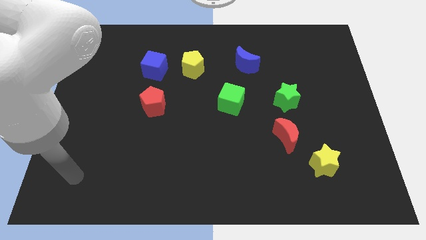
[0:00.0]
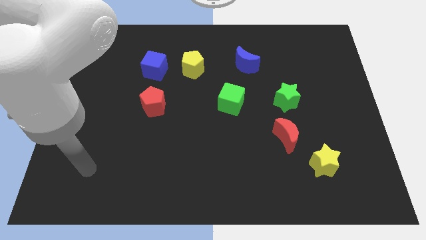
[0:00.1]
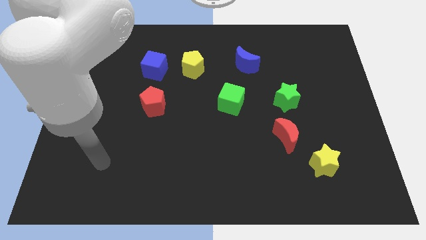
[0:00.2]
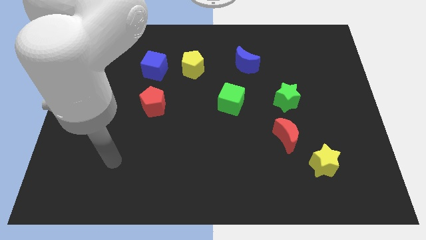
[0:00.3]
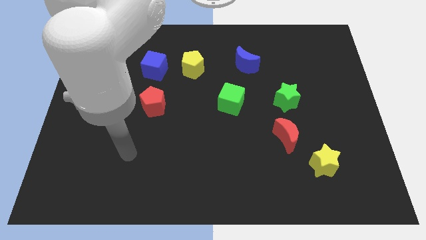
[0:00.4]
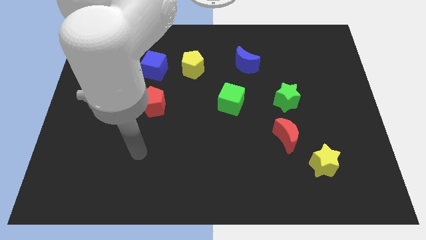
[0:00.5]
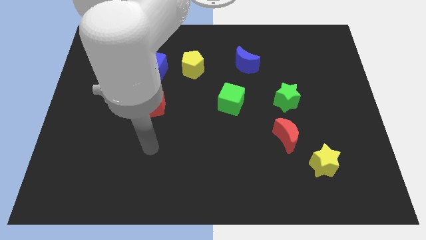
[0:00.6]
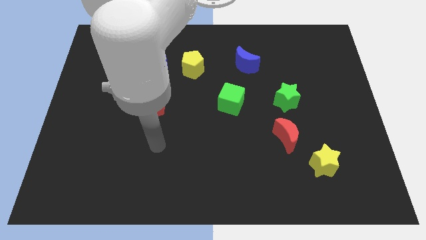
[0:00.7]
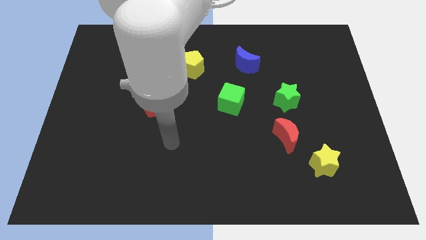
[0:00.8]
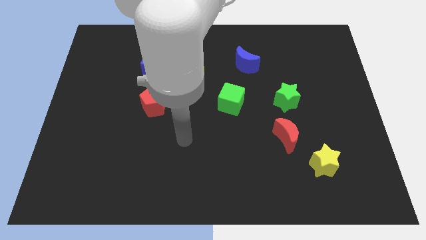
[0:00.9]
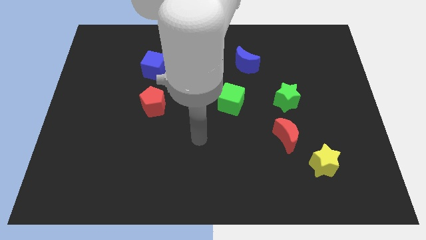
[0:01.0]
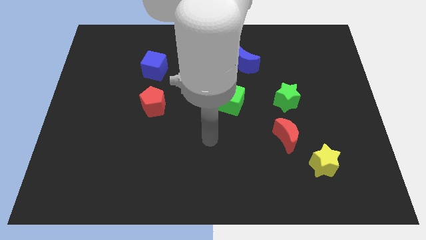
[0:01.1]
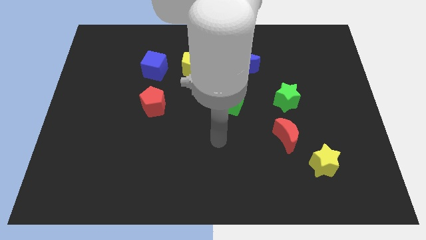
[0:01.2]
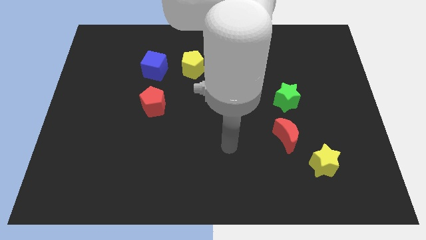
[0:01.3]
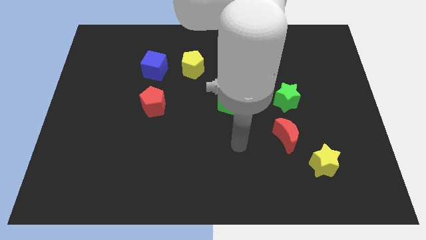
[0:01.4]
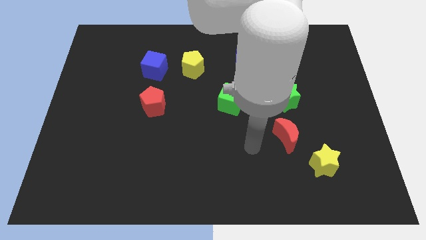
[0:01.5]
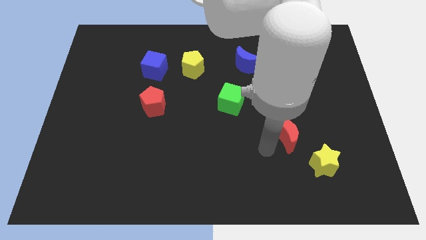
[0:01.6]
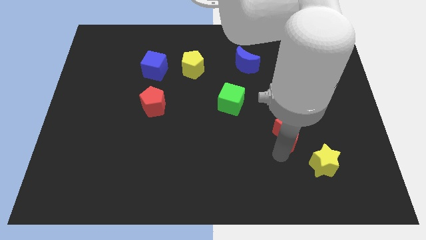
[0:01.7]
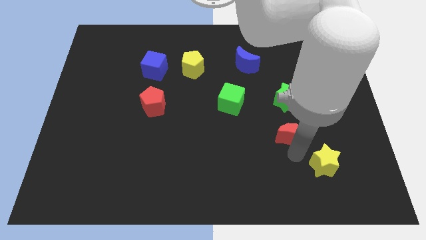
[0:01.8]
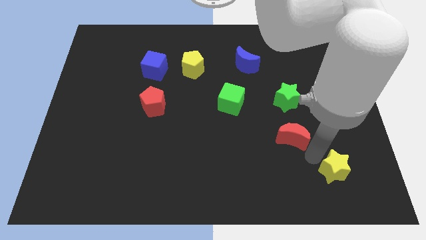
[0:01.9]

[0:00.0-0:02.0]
pull the red moon apart from the yellow star

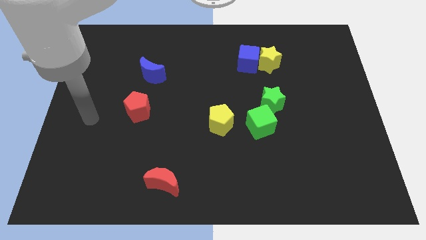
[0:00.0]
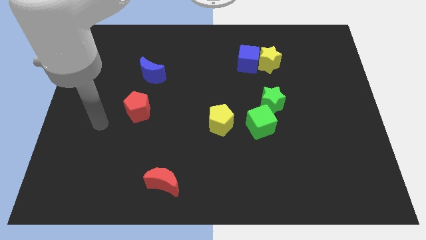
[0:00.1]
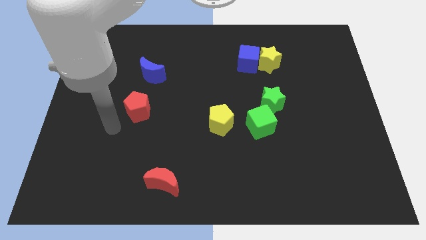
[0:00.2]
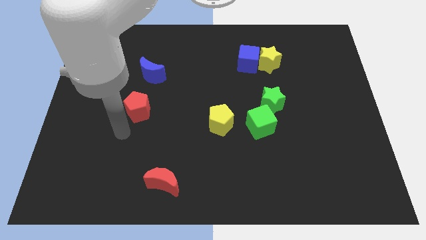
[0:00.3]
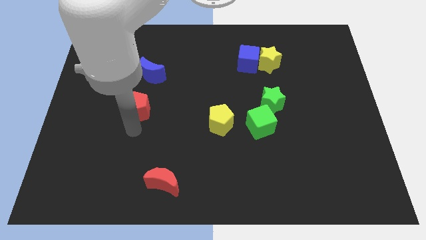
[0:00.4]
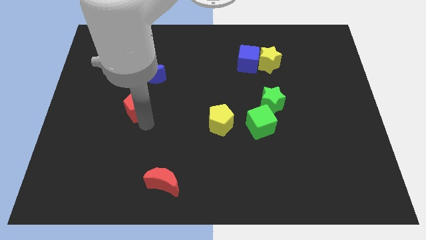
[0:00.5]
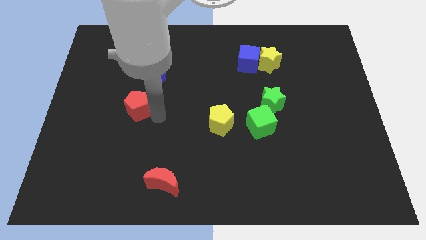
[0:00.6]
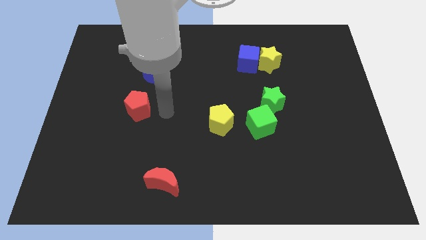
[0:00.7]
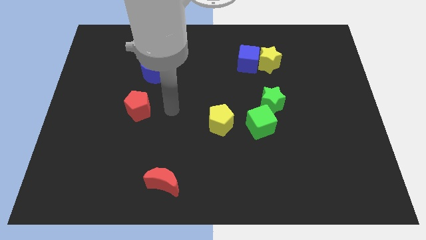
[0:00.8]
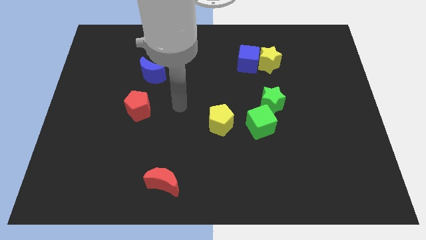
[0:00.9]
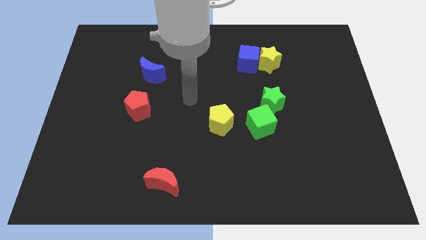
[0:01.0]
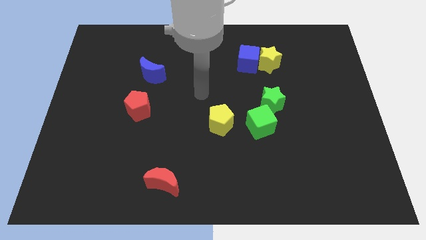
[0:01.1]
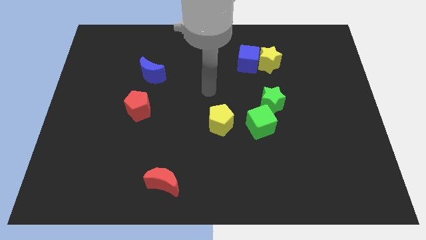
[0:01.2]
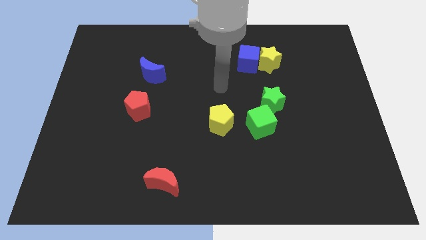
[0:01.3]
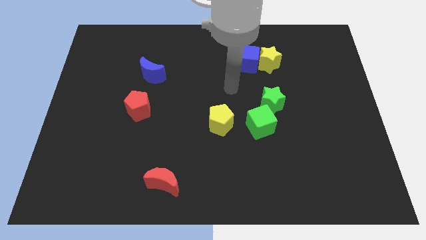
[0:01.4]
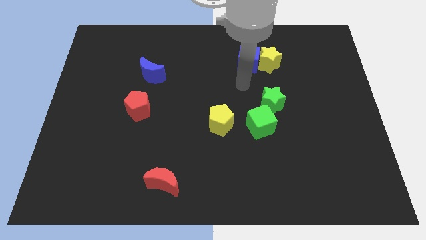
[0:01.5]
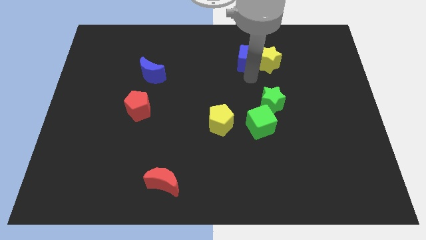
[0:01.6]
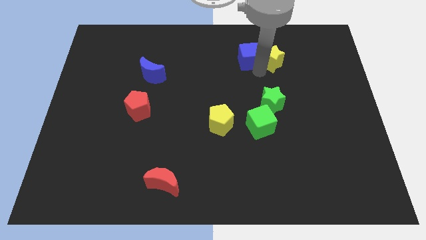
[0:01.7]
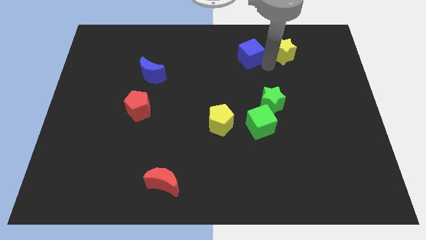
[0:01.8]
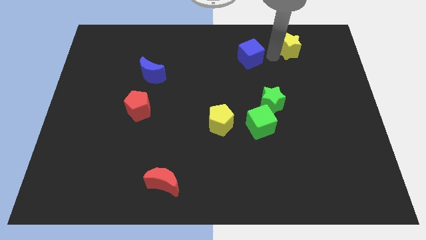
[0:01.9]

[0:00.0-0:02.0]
move the blue cube away from the yellow star

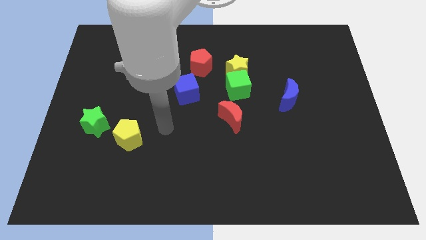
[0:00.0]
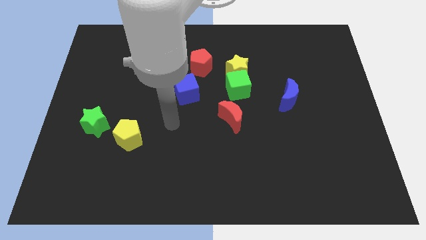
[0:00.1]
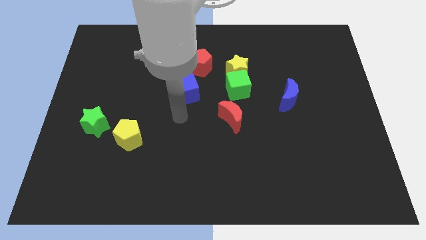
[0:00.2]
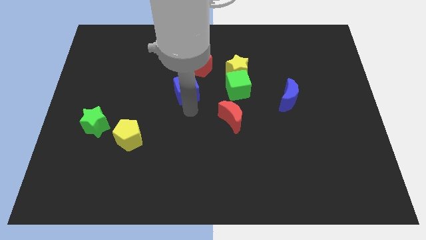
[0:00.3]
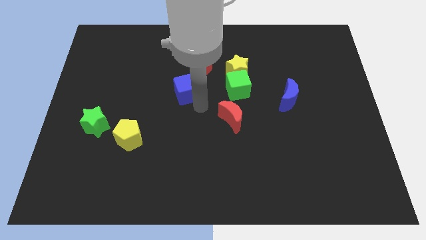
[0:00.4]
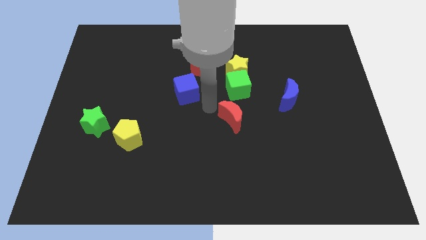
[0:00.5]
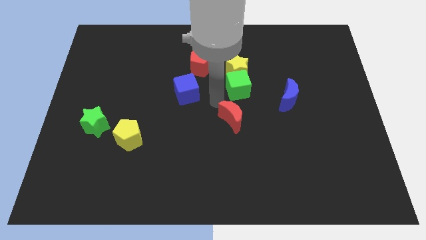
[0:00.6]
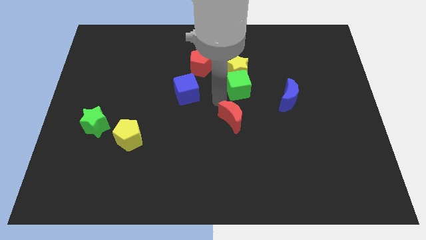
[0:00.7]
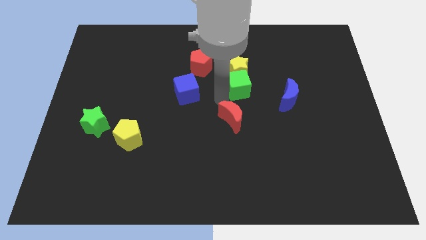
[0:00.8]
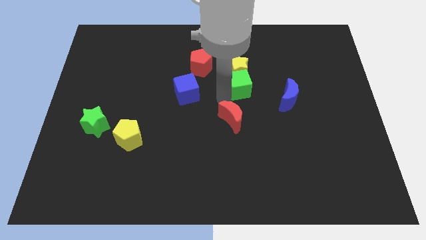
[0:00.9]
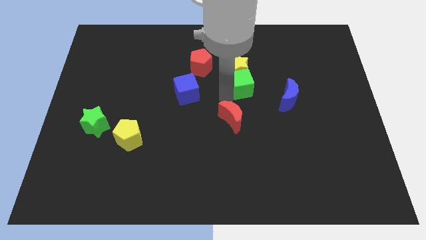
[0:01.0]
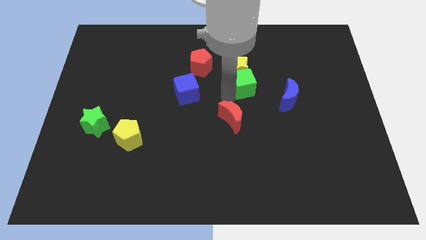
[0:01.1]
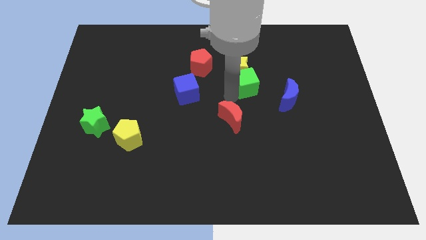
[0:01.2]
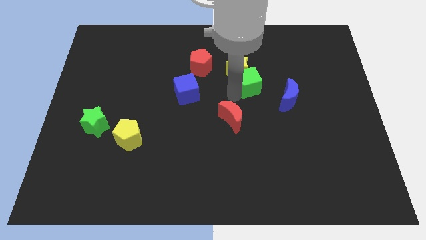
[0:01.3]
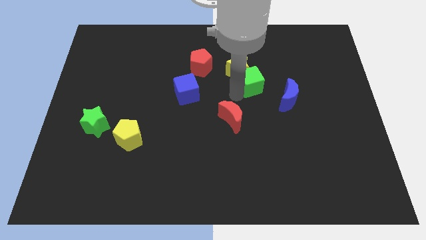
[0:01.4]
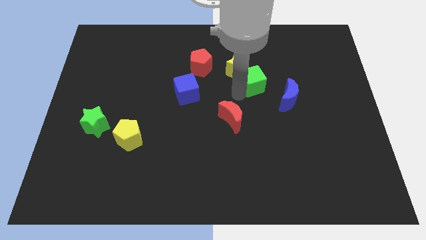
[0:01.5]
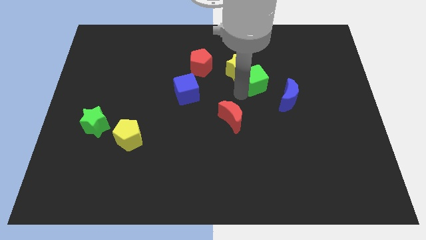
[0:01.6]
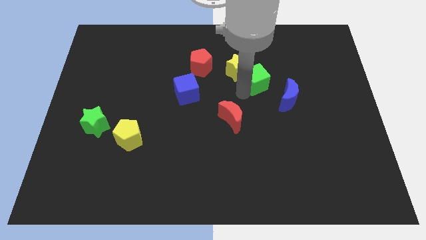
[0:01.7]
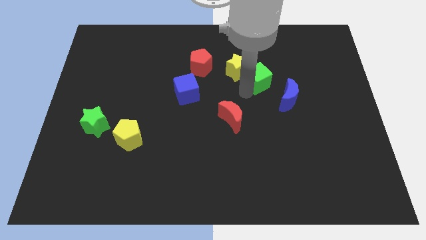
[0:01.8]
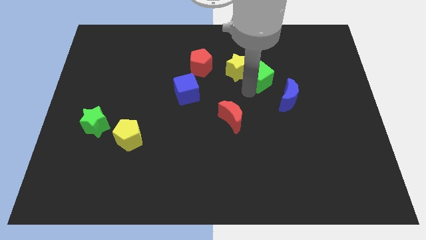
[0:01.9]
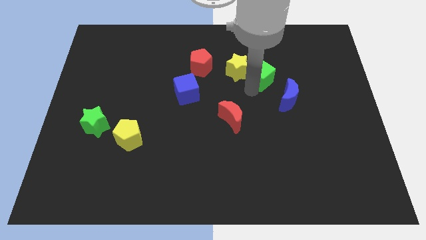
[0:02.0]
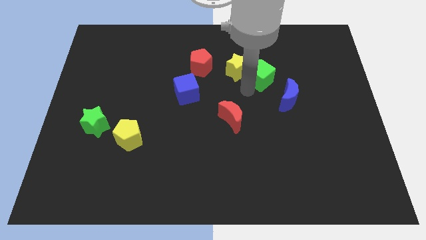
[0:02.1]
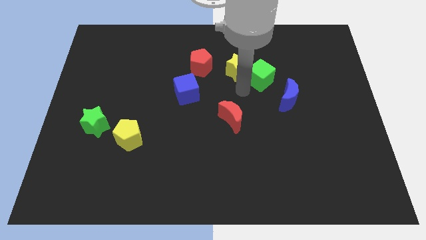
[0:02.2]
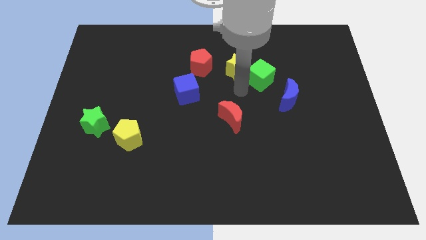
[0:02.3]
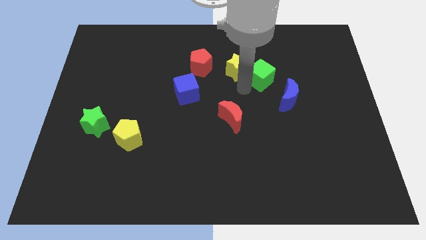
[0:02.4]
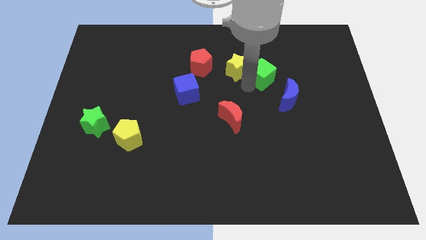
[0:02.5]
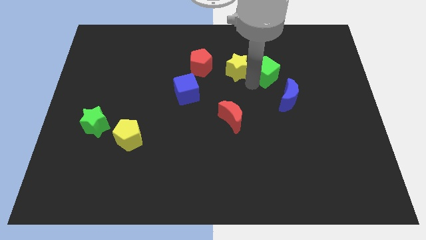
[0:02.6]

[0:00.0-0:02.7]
move the green cube away from the yellow star and red moon

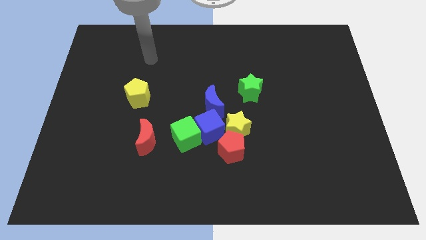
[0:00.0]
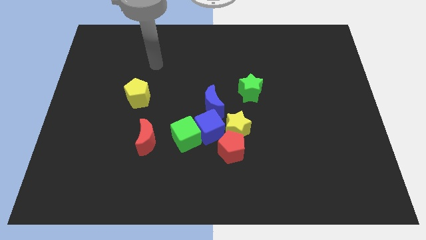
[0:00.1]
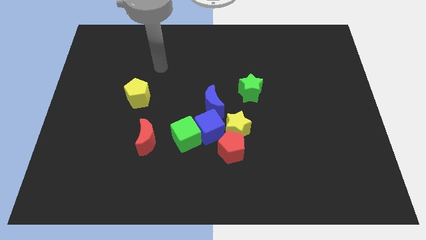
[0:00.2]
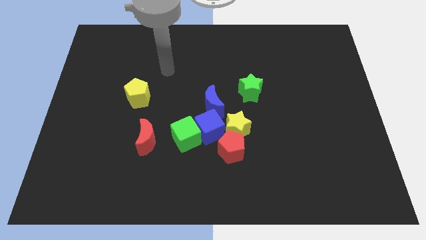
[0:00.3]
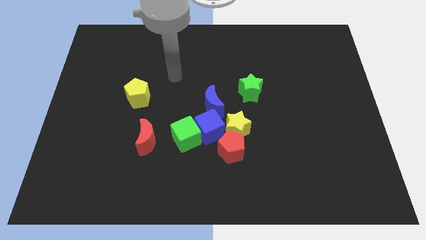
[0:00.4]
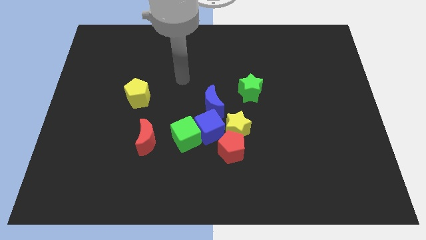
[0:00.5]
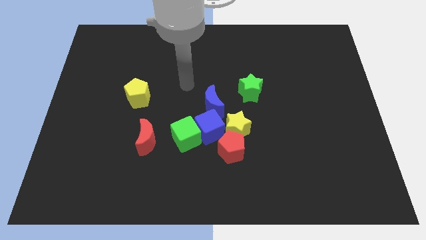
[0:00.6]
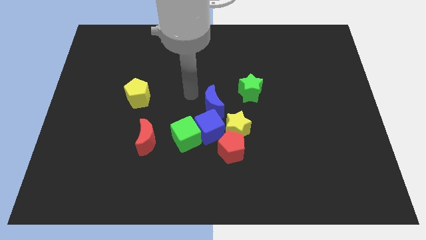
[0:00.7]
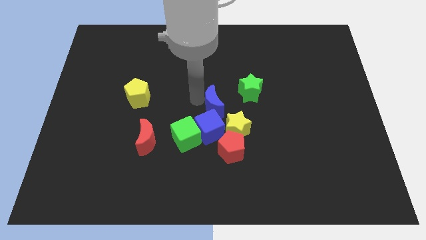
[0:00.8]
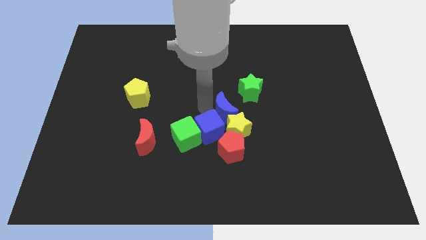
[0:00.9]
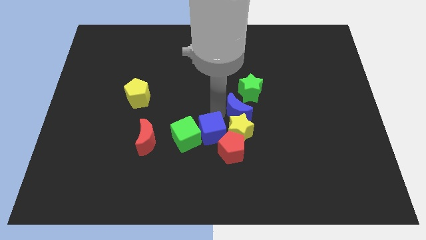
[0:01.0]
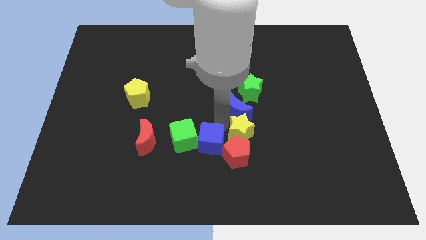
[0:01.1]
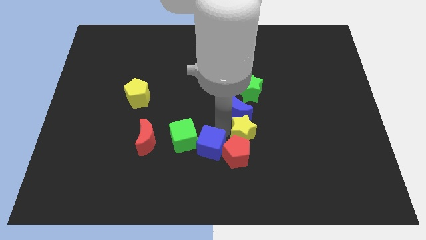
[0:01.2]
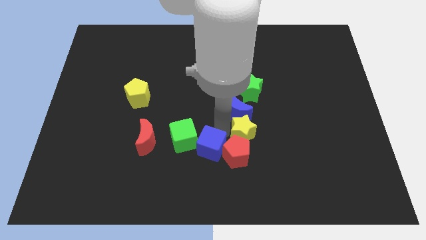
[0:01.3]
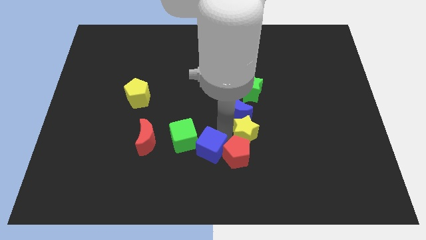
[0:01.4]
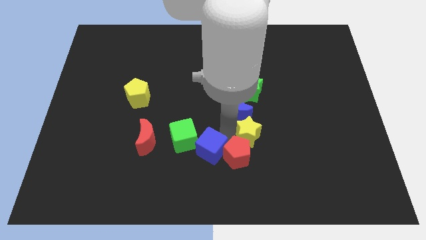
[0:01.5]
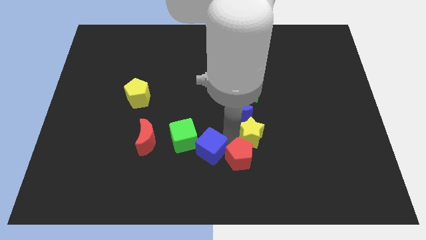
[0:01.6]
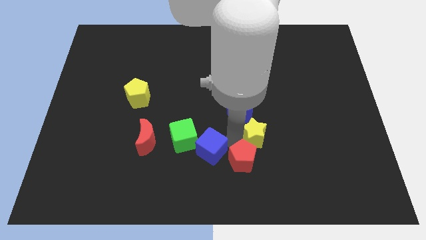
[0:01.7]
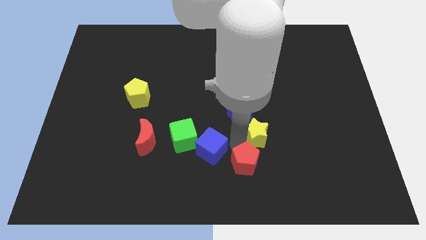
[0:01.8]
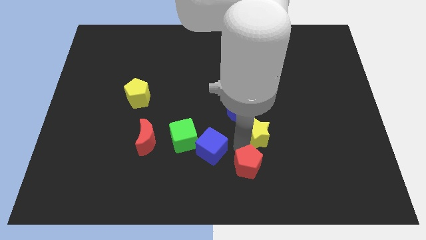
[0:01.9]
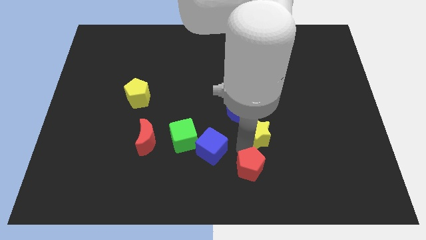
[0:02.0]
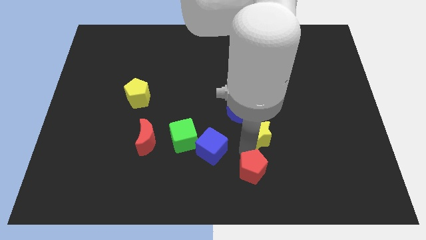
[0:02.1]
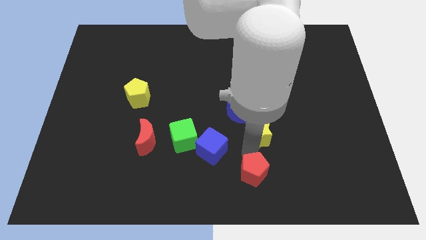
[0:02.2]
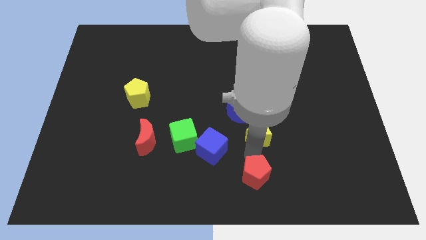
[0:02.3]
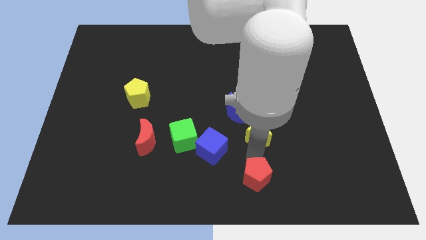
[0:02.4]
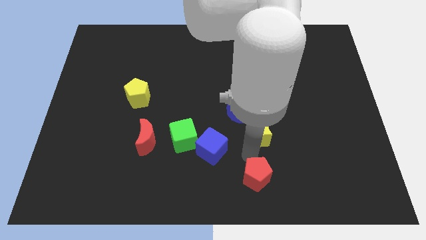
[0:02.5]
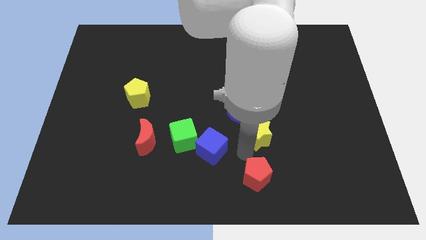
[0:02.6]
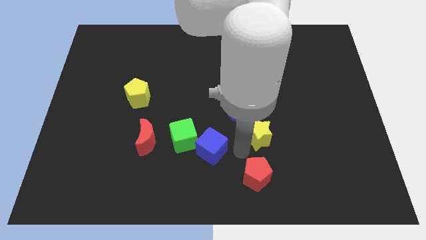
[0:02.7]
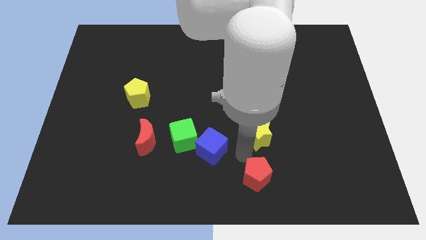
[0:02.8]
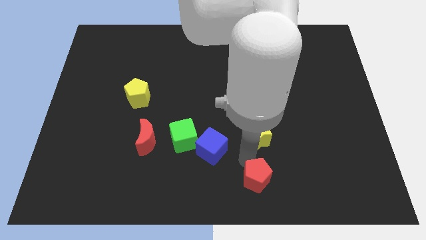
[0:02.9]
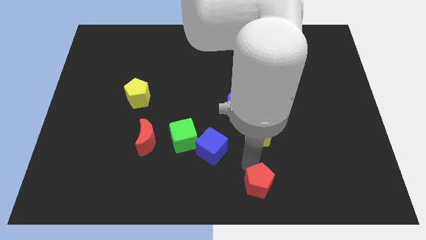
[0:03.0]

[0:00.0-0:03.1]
pull the red pentagon apart from the yellow star and blue cube
